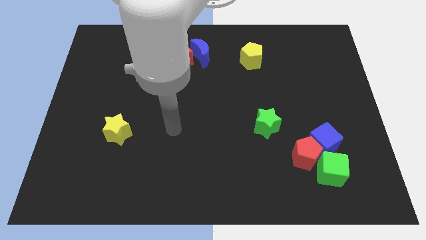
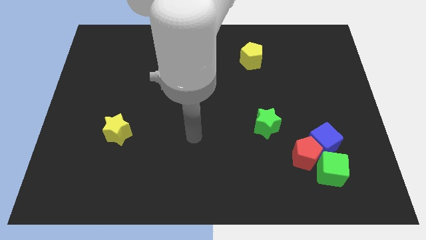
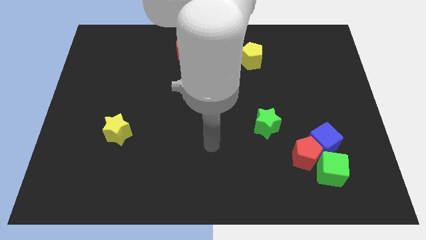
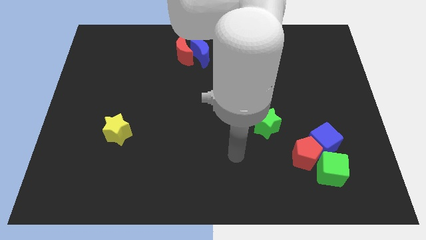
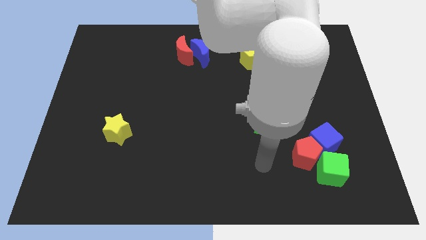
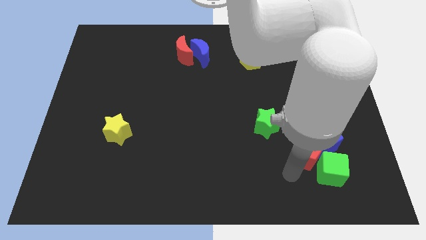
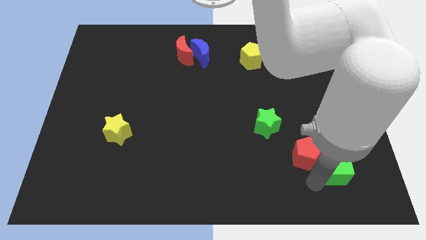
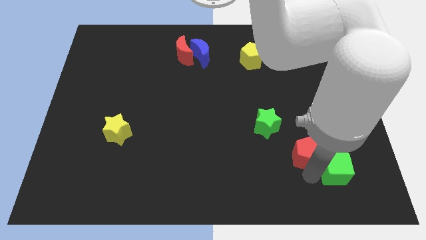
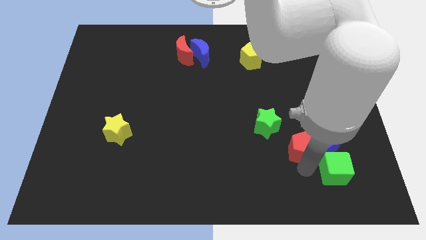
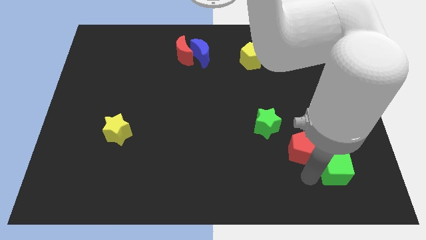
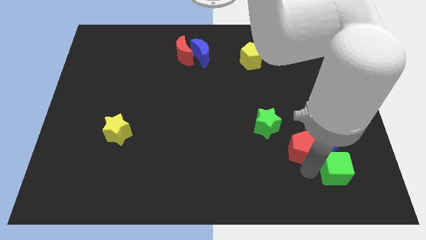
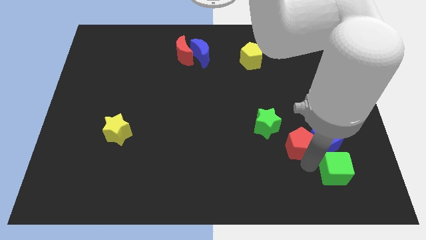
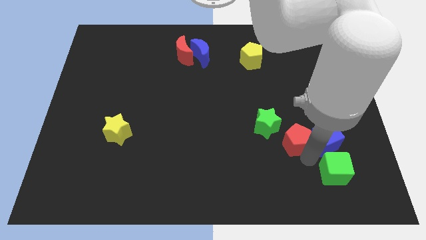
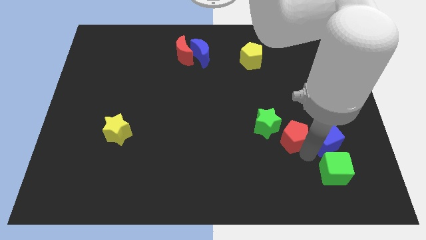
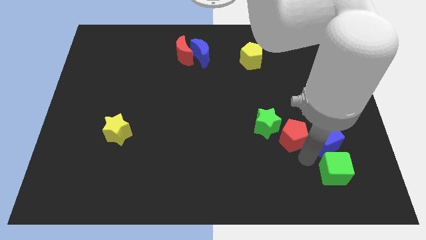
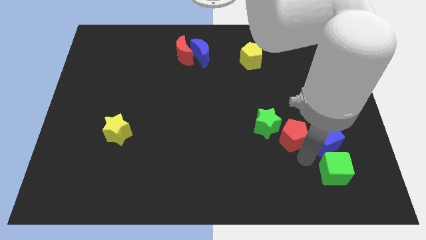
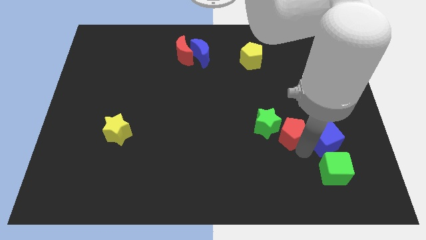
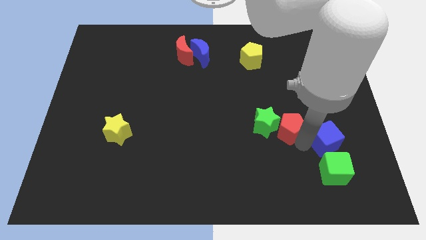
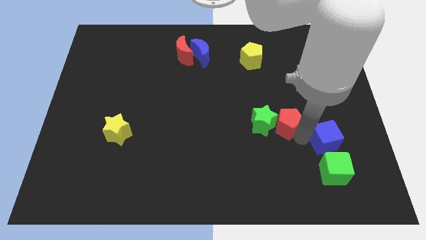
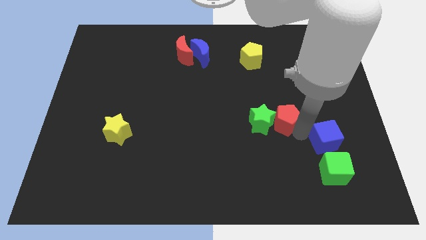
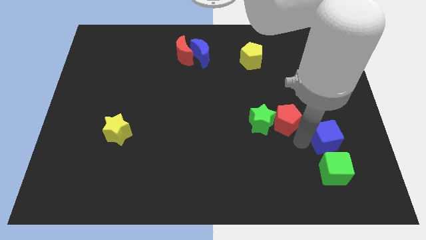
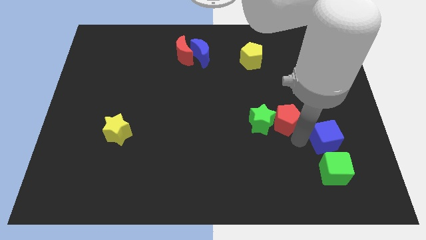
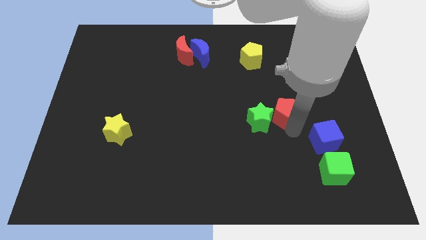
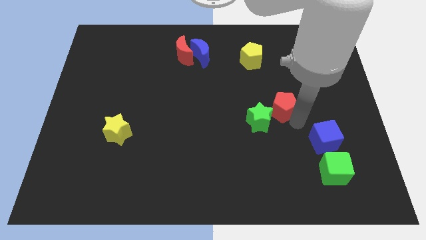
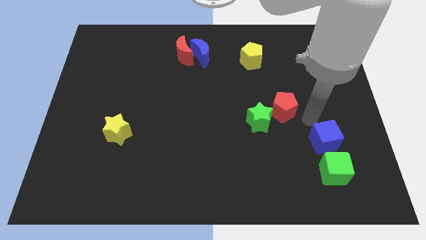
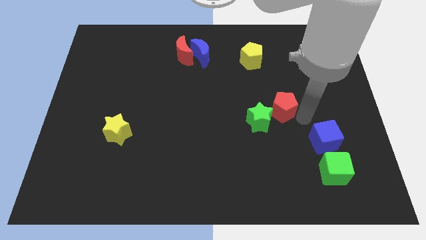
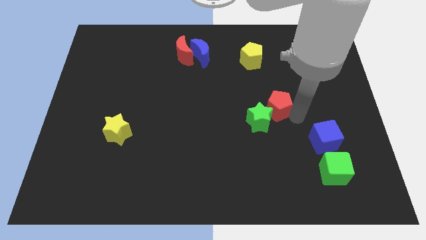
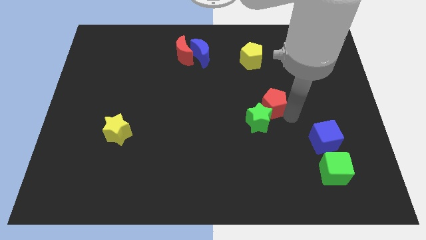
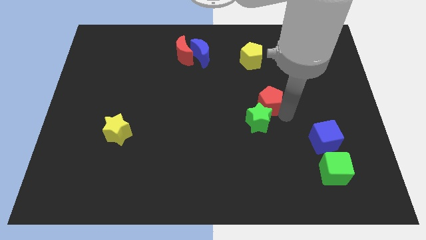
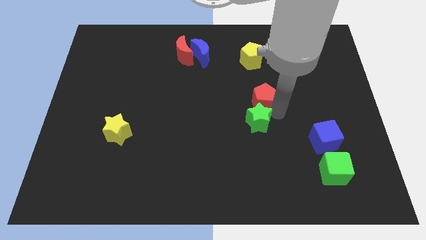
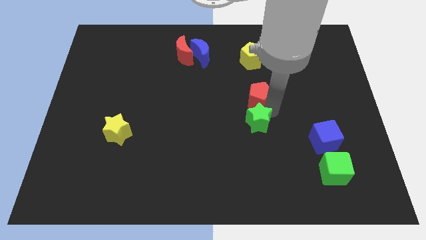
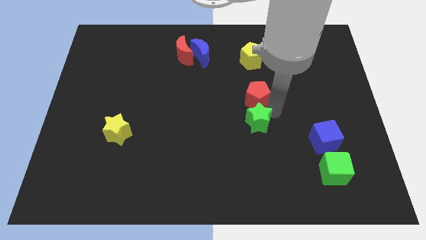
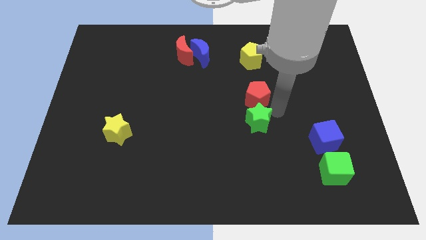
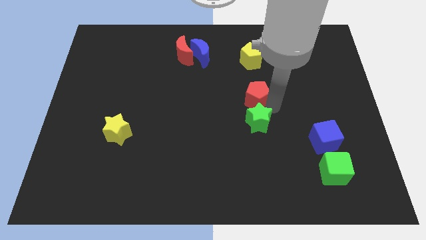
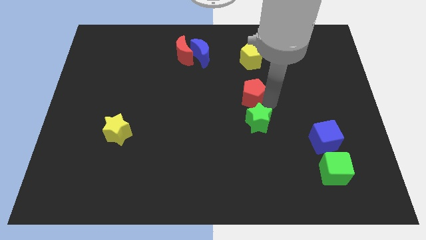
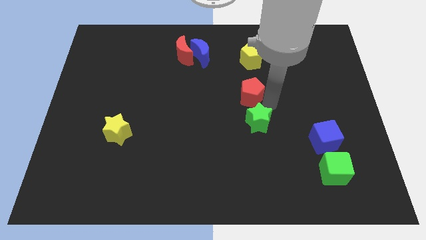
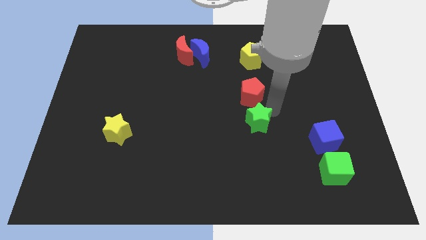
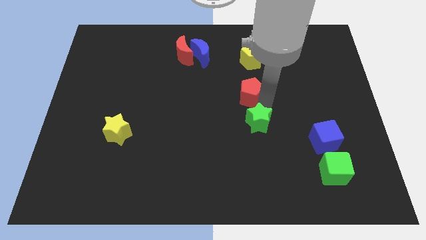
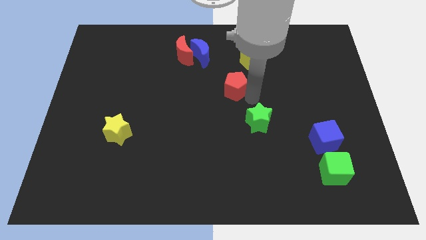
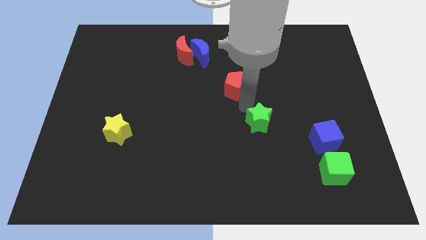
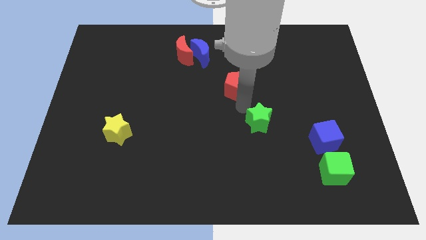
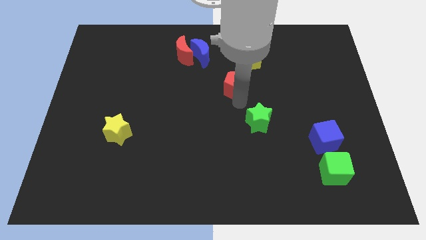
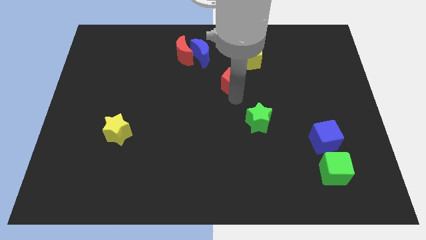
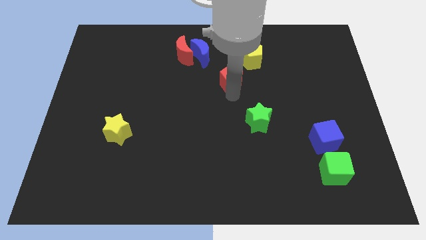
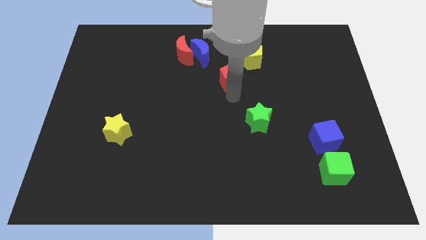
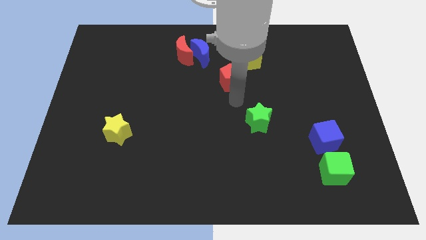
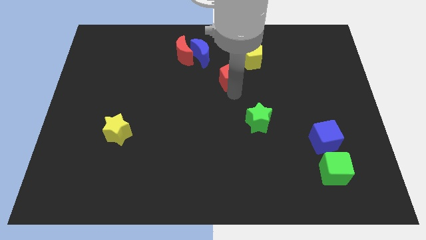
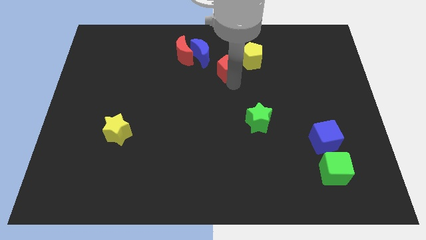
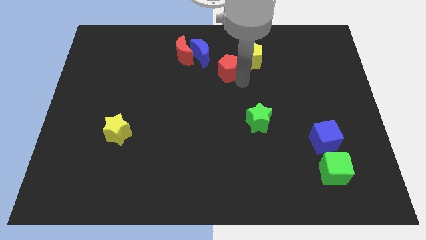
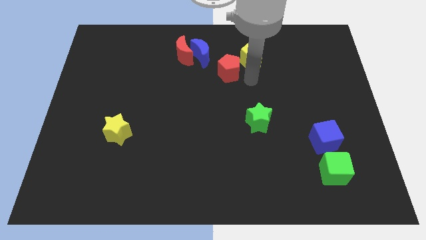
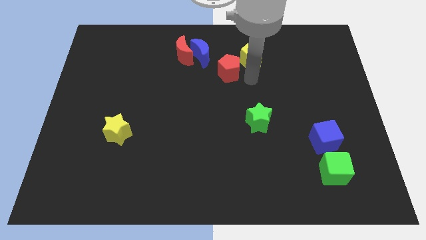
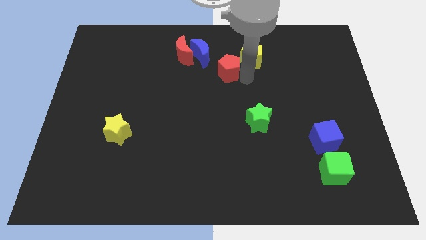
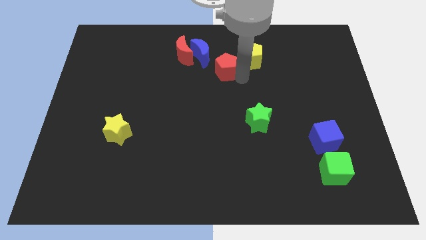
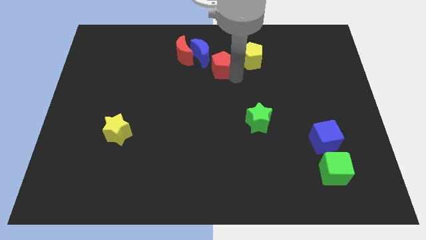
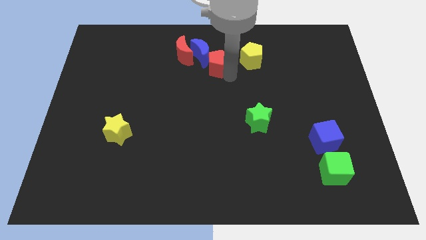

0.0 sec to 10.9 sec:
put the red pentagon close to the blue moon

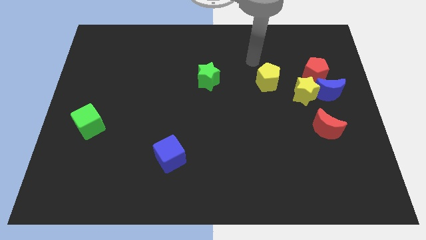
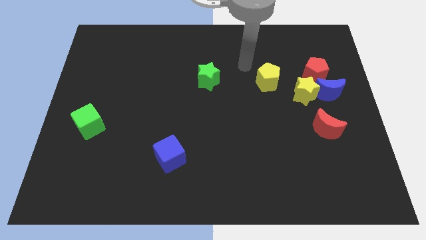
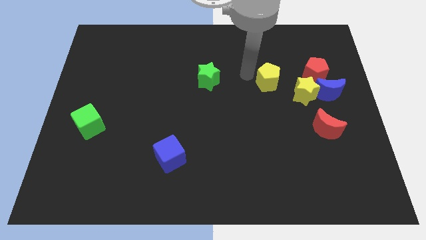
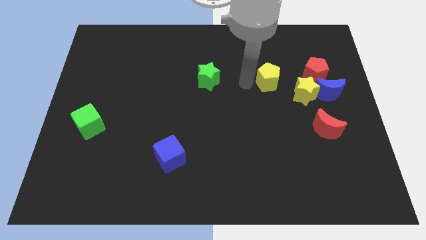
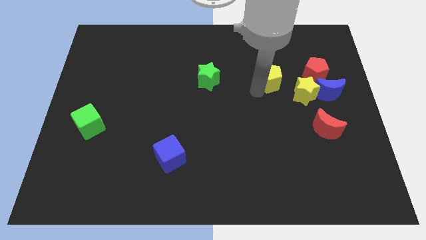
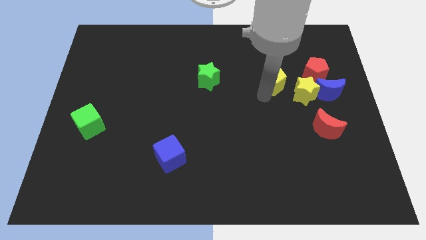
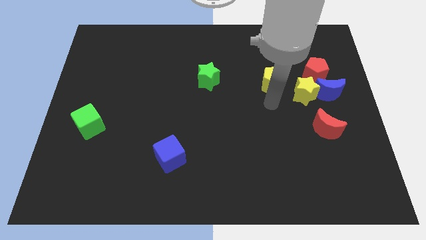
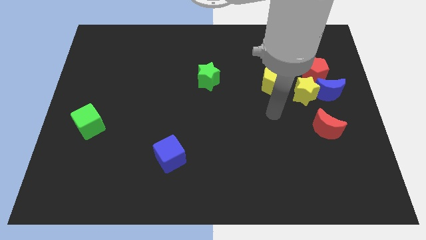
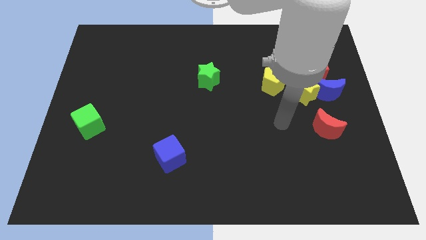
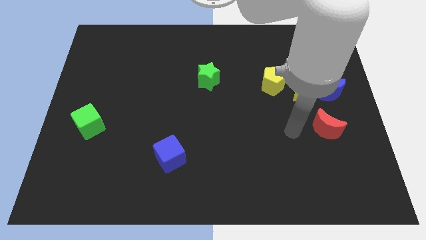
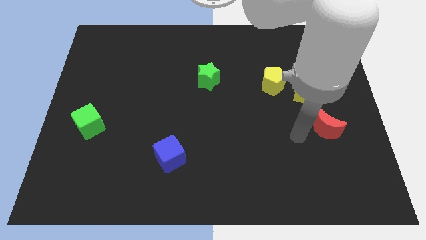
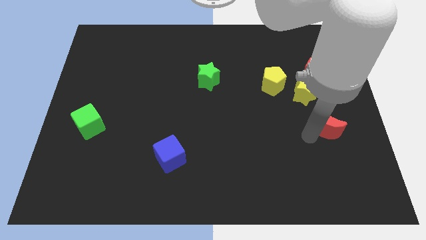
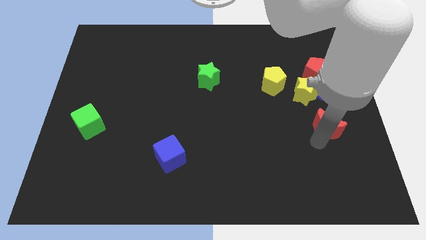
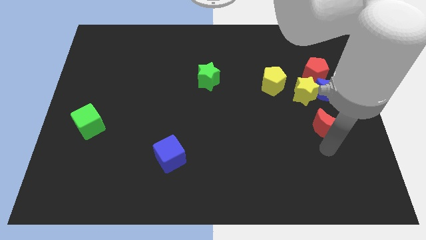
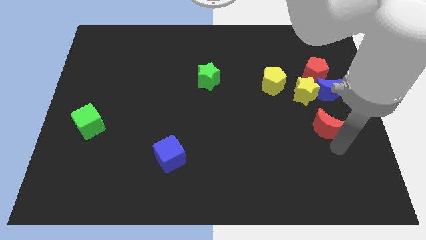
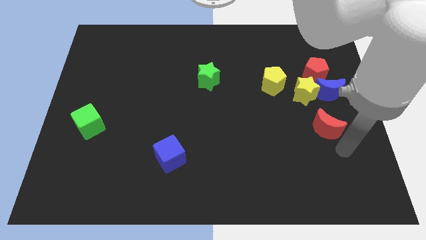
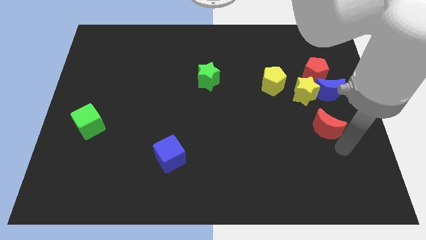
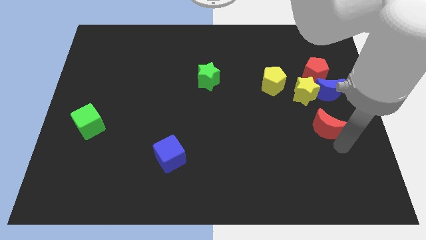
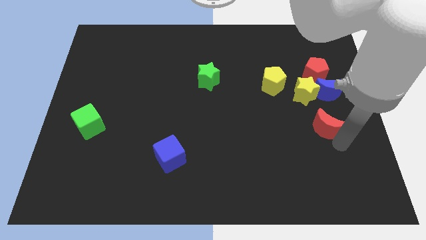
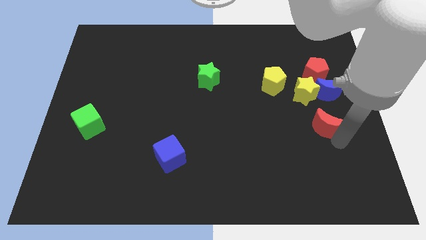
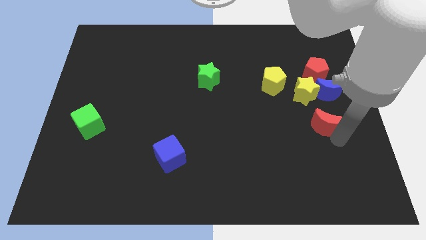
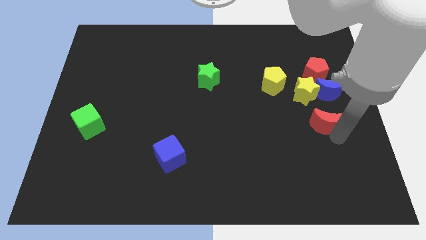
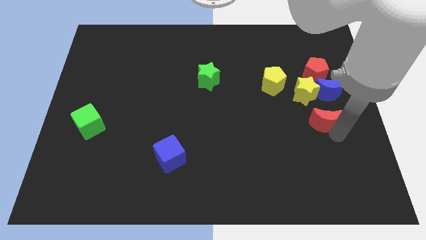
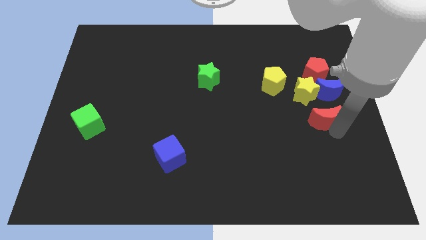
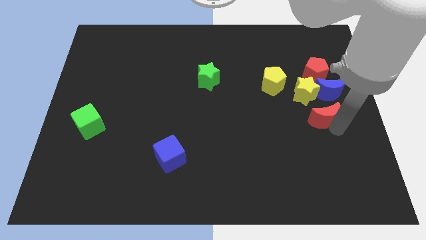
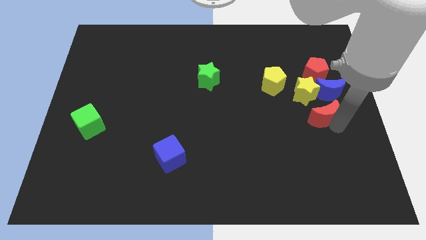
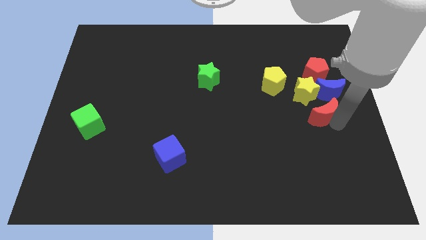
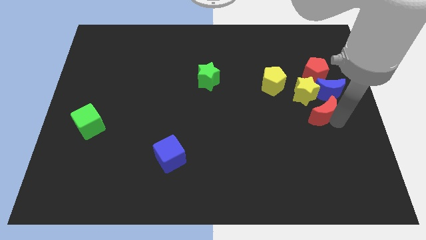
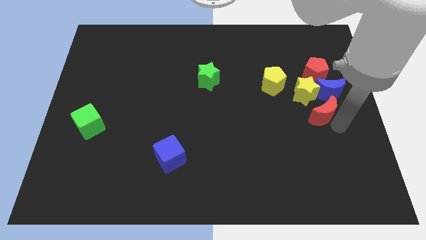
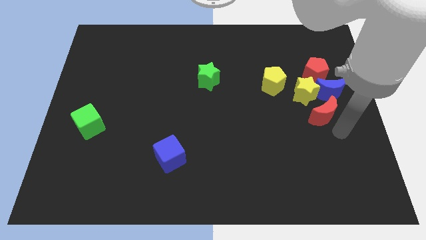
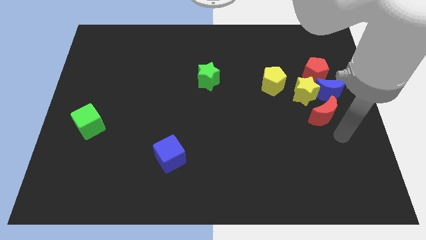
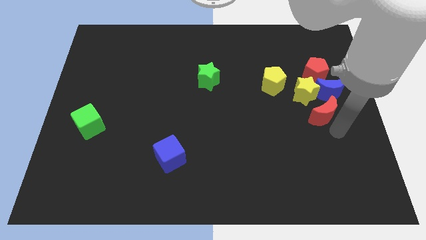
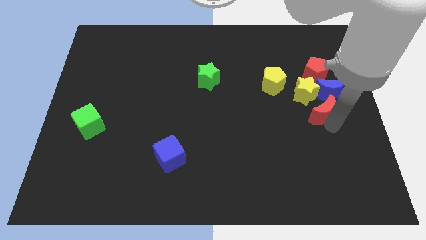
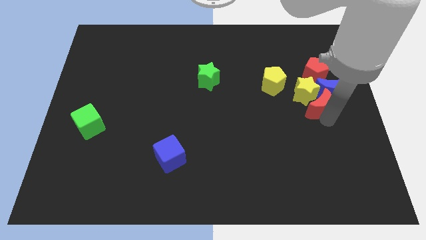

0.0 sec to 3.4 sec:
put the red moon next to the yellow star
